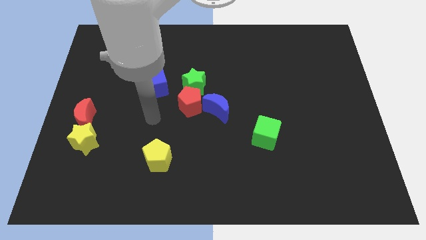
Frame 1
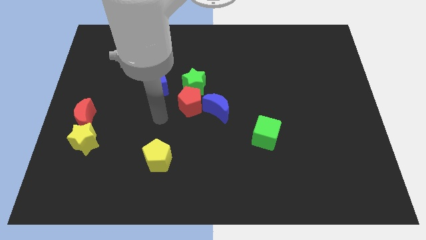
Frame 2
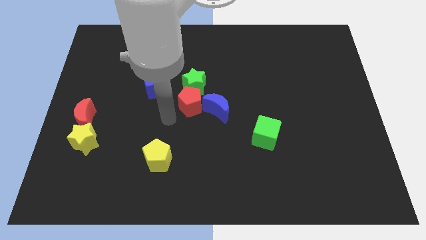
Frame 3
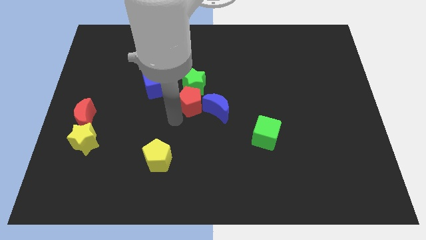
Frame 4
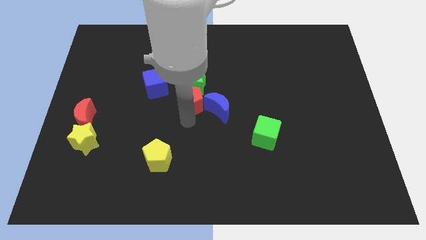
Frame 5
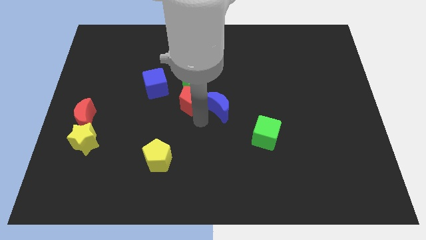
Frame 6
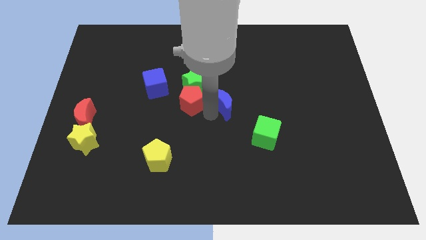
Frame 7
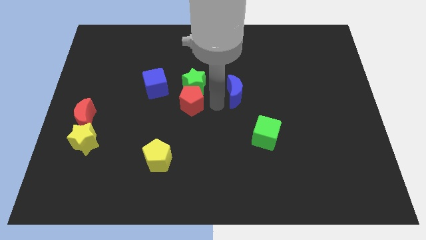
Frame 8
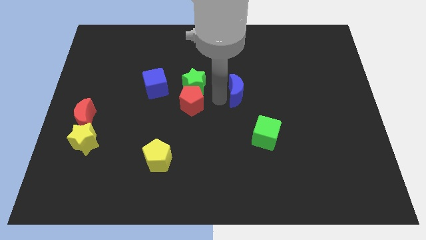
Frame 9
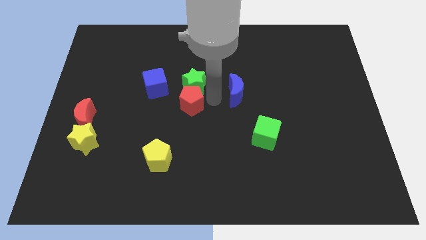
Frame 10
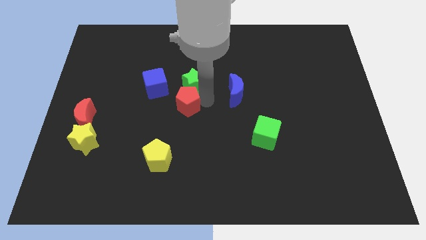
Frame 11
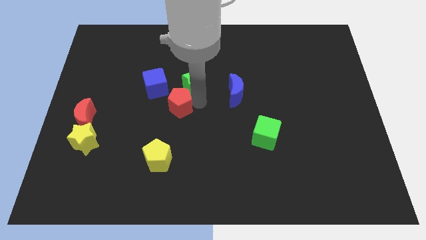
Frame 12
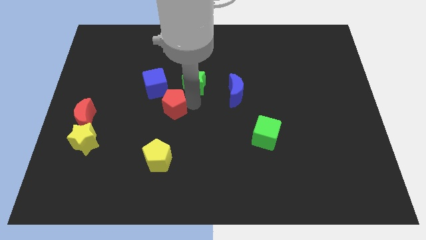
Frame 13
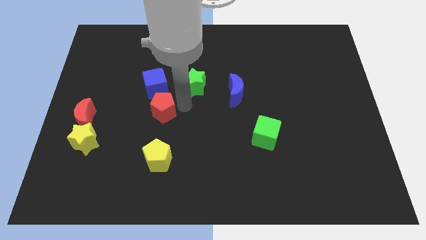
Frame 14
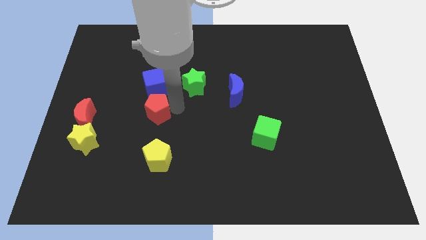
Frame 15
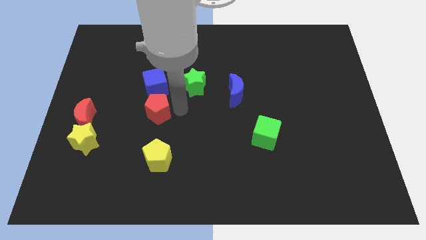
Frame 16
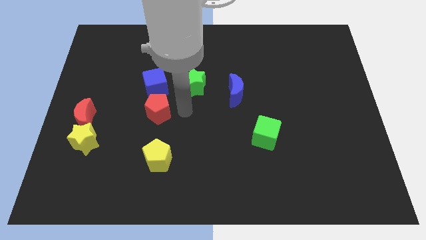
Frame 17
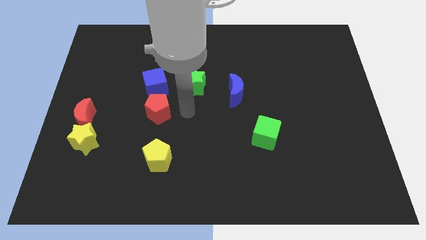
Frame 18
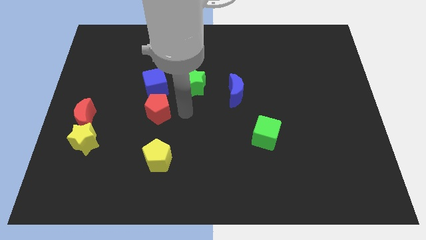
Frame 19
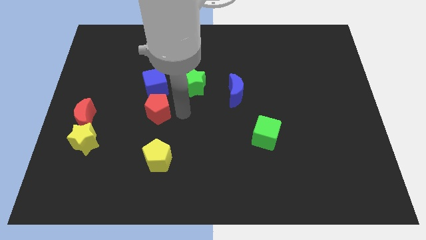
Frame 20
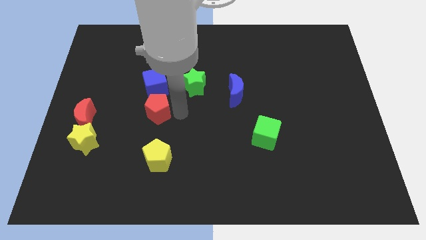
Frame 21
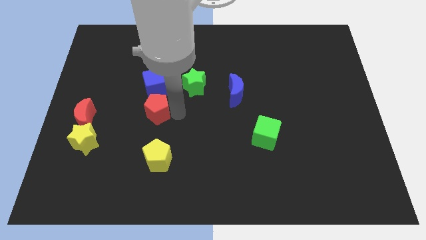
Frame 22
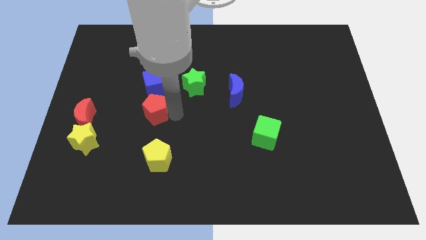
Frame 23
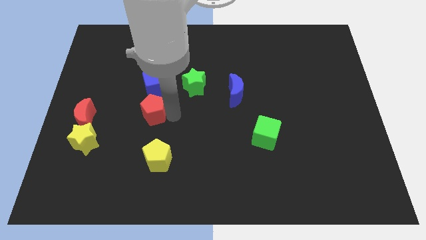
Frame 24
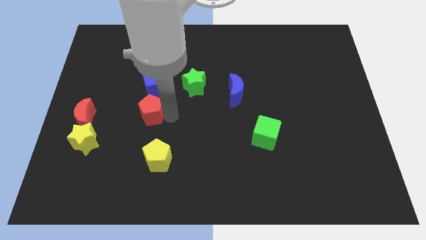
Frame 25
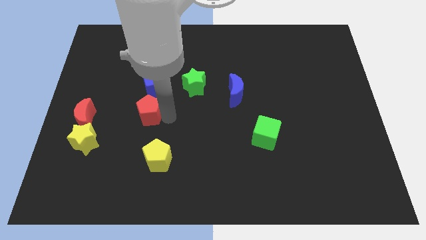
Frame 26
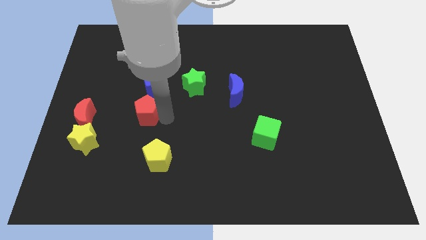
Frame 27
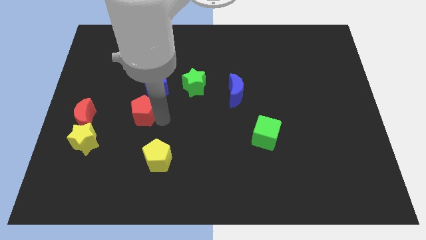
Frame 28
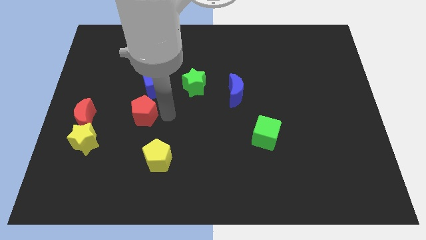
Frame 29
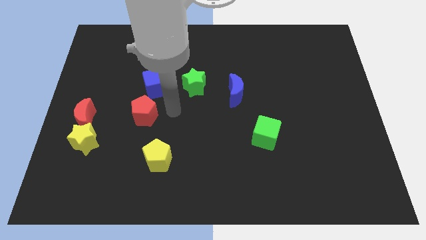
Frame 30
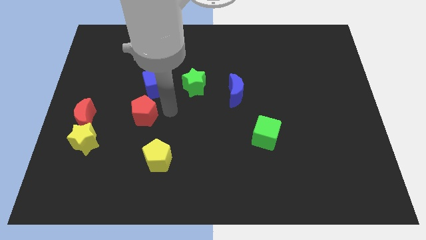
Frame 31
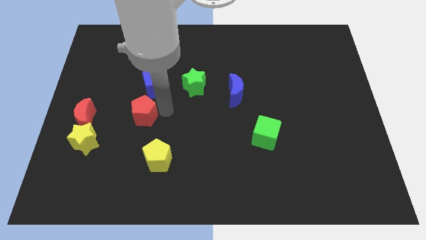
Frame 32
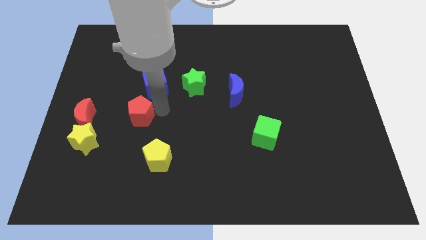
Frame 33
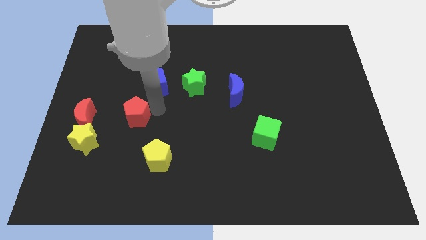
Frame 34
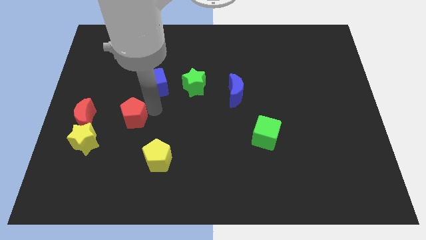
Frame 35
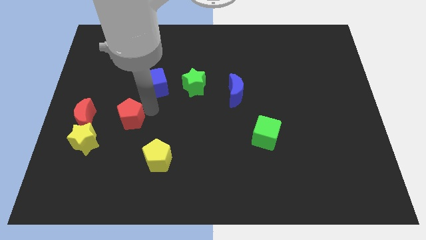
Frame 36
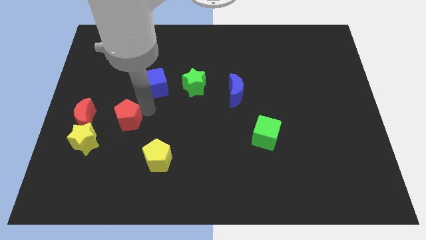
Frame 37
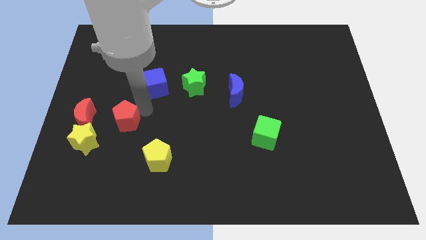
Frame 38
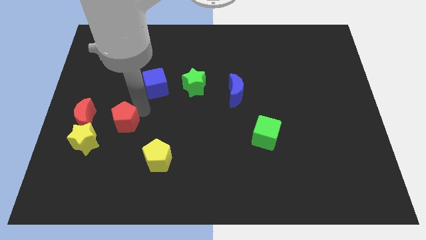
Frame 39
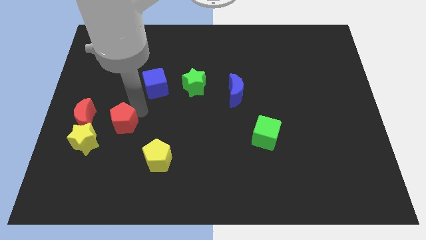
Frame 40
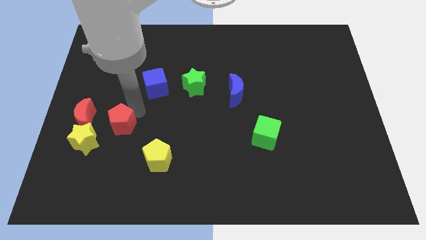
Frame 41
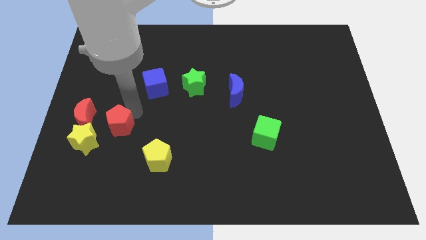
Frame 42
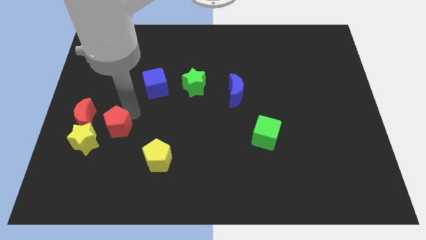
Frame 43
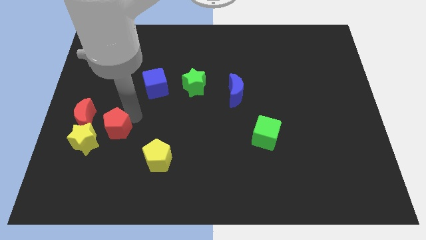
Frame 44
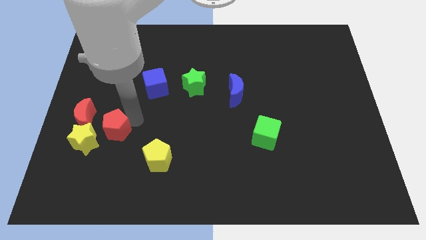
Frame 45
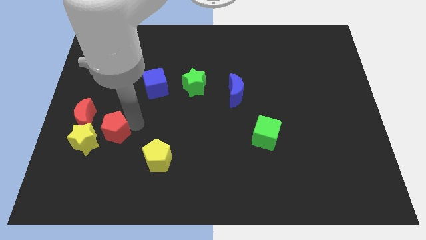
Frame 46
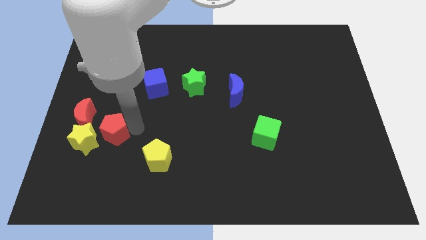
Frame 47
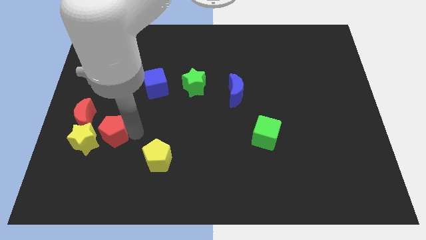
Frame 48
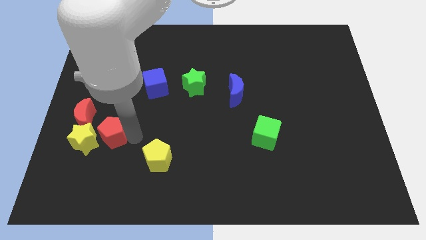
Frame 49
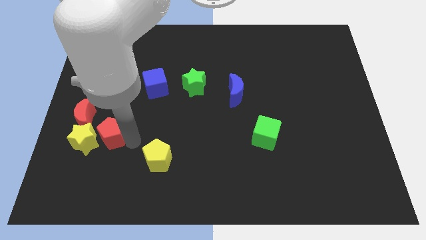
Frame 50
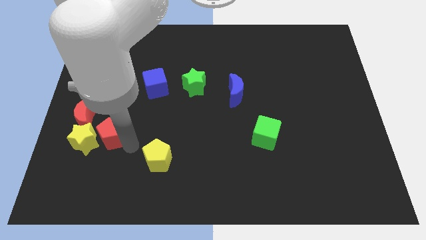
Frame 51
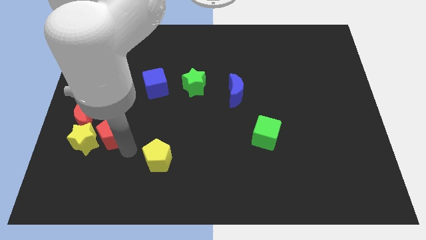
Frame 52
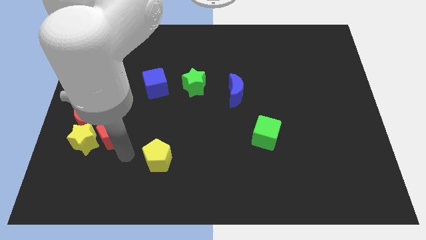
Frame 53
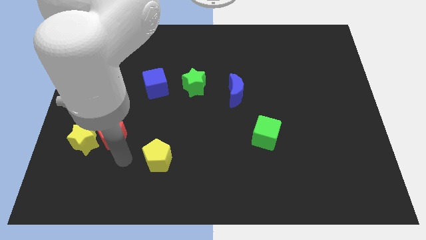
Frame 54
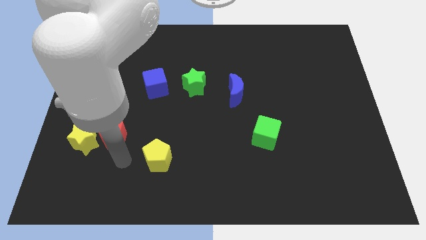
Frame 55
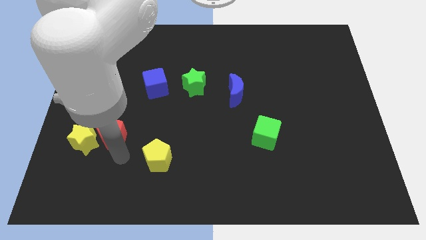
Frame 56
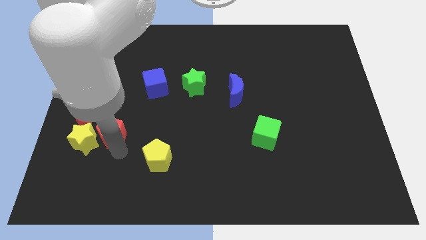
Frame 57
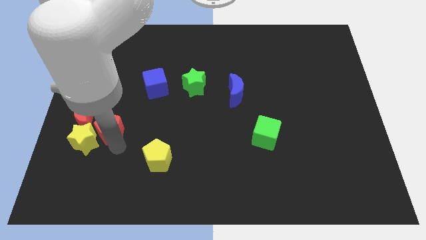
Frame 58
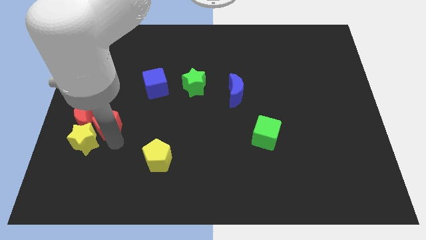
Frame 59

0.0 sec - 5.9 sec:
slide the red pentagon close to the red moon

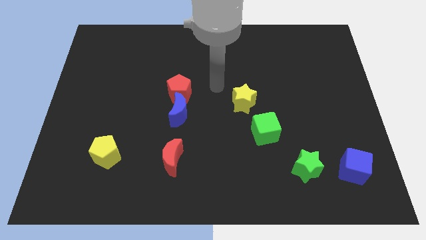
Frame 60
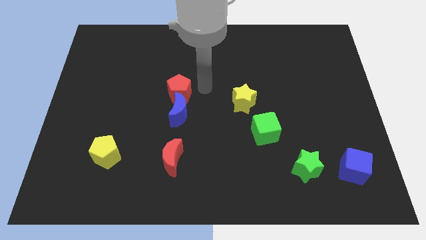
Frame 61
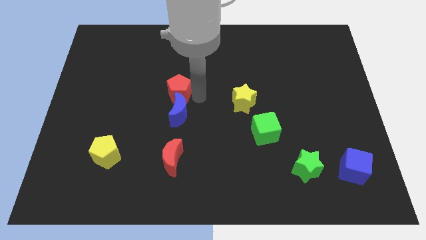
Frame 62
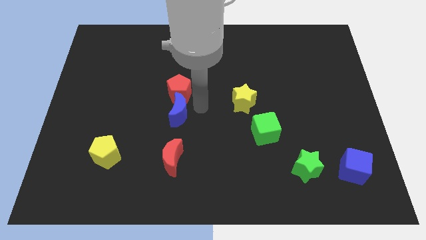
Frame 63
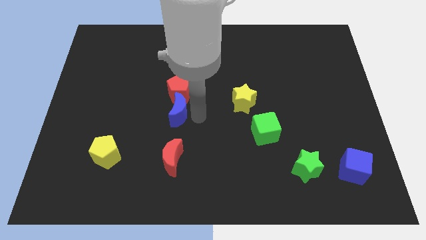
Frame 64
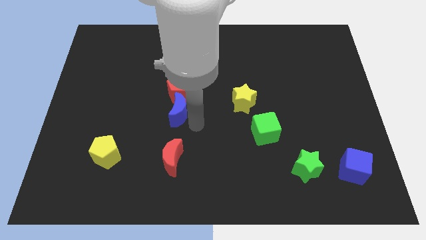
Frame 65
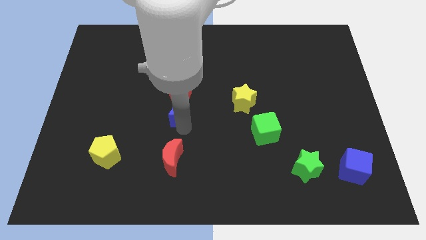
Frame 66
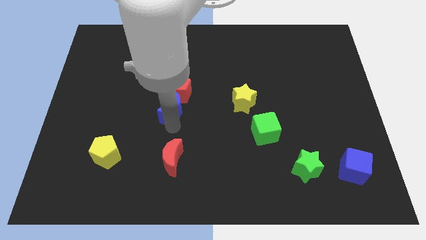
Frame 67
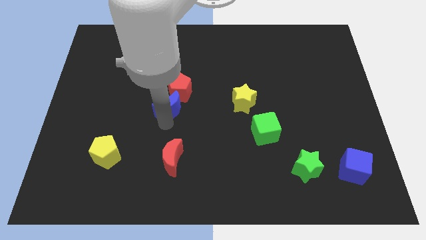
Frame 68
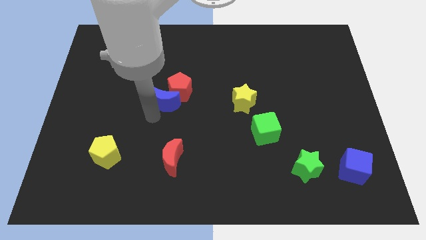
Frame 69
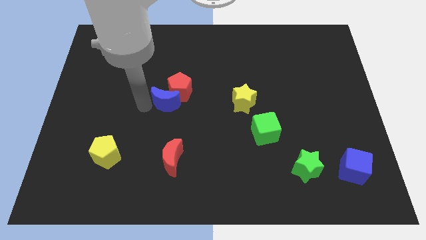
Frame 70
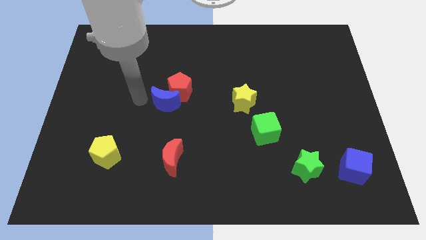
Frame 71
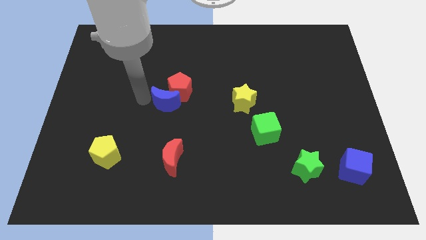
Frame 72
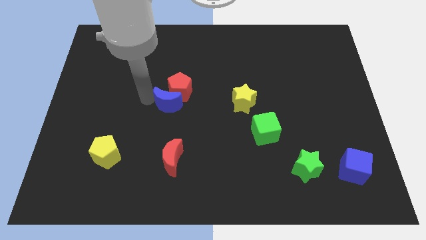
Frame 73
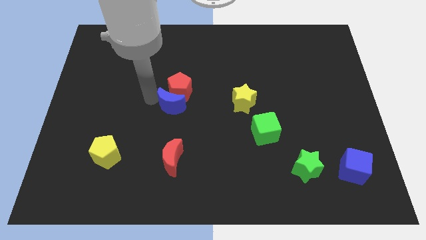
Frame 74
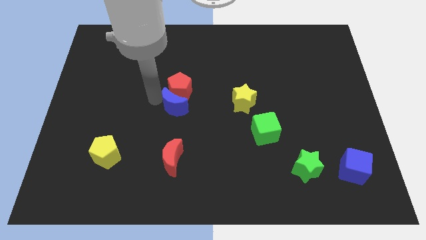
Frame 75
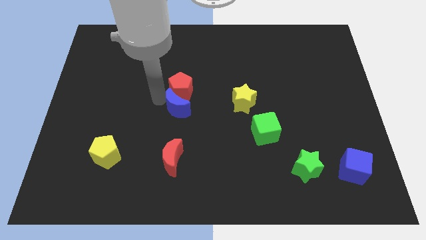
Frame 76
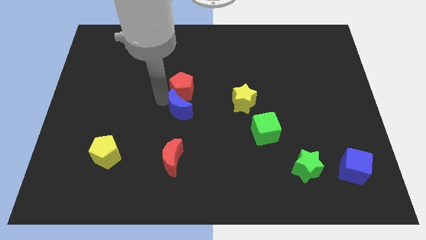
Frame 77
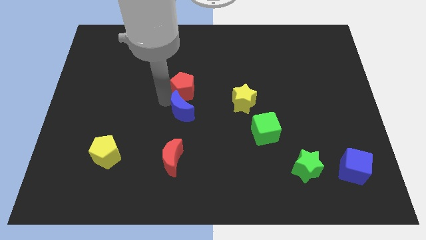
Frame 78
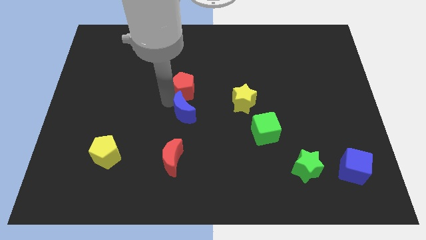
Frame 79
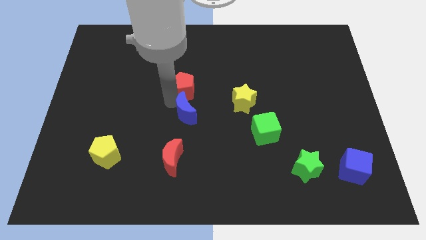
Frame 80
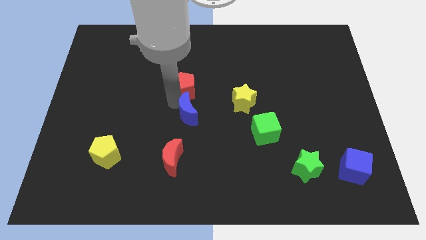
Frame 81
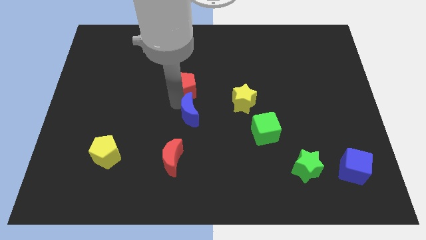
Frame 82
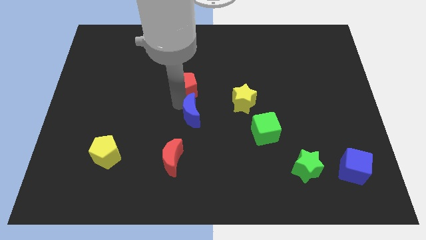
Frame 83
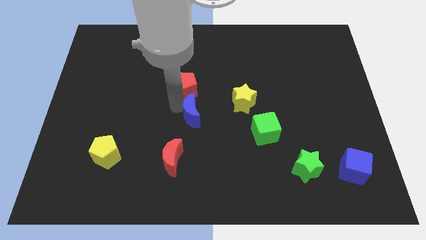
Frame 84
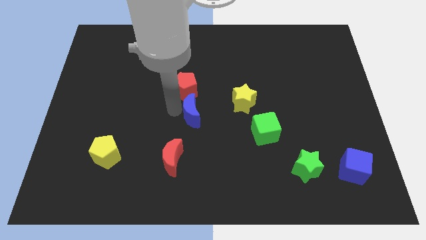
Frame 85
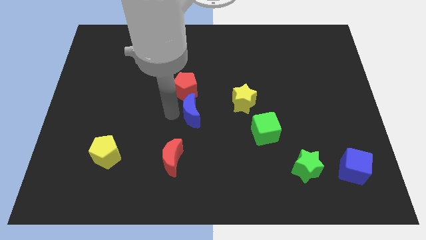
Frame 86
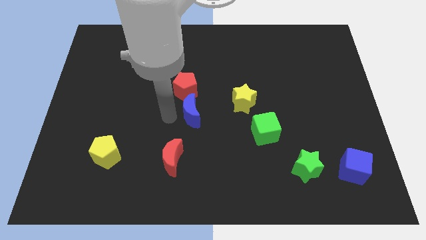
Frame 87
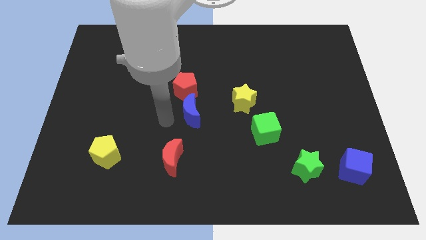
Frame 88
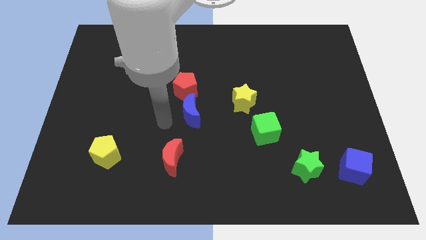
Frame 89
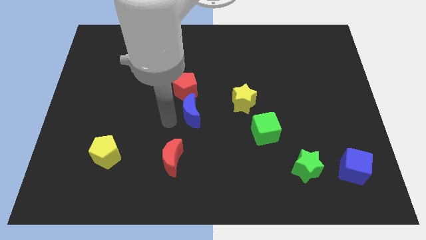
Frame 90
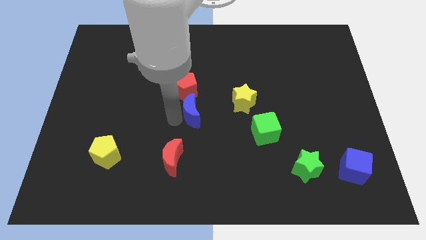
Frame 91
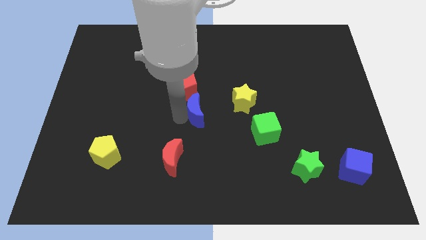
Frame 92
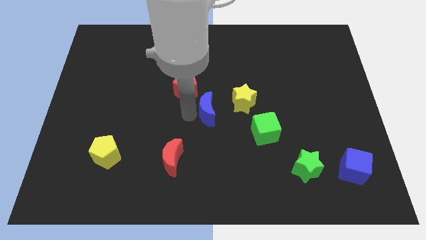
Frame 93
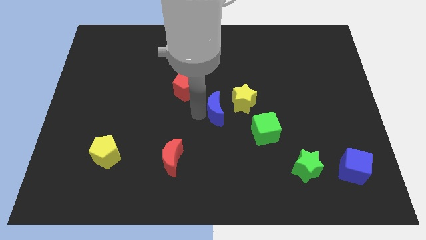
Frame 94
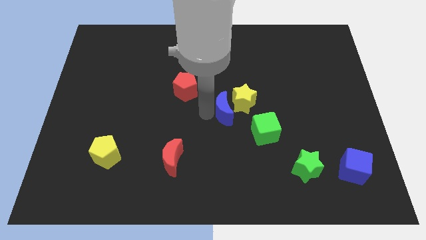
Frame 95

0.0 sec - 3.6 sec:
move the blue moon towards the yellow star
